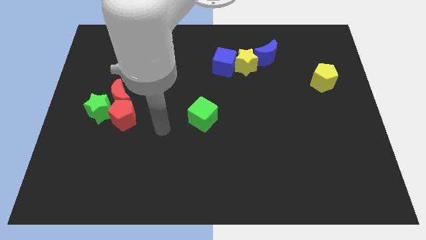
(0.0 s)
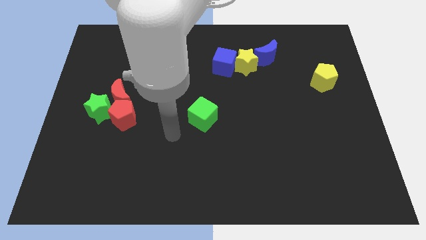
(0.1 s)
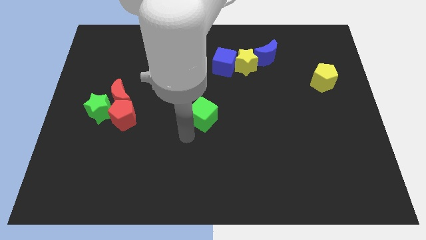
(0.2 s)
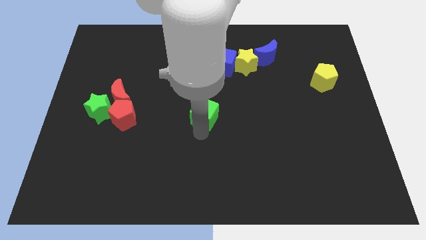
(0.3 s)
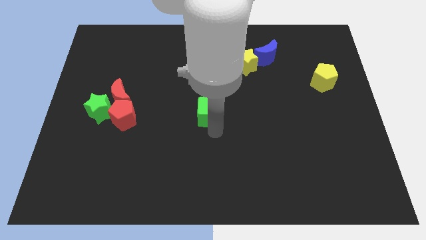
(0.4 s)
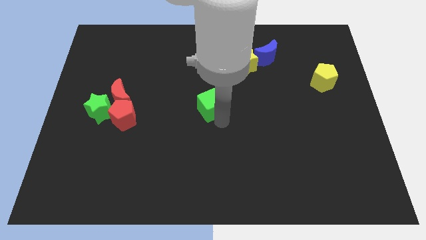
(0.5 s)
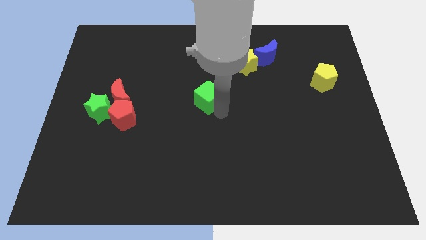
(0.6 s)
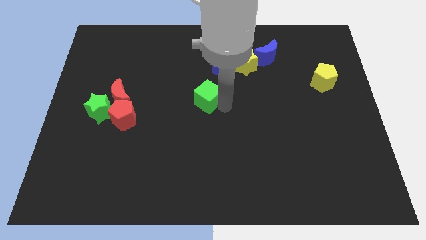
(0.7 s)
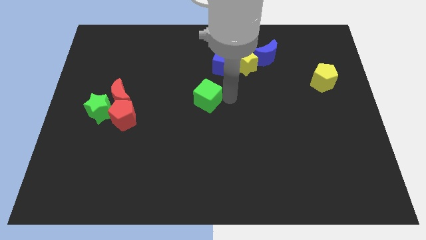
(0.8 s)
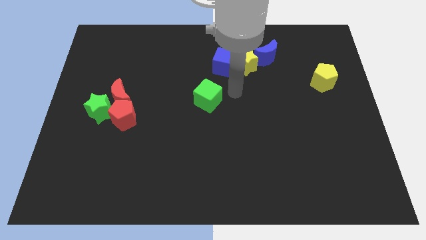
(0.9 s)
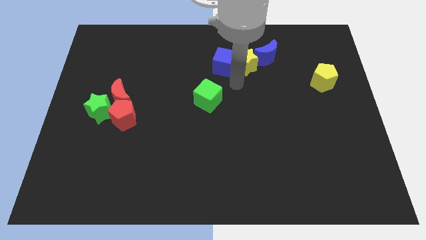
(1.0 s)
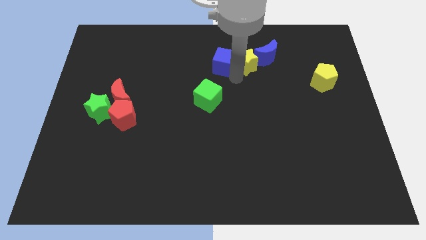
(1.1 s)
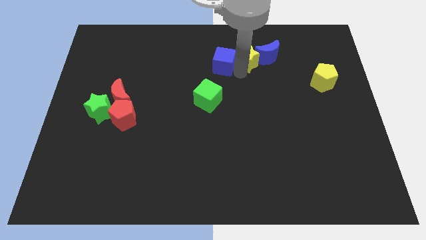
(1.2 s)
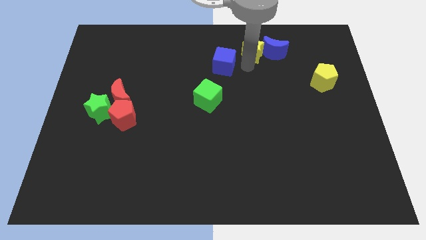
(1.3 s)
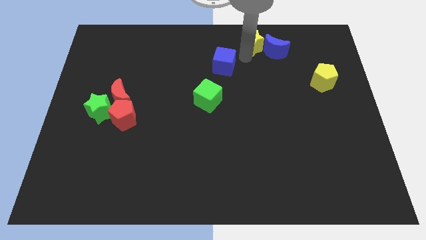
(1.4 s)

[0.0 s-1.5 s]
pull the blue cube apart from the yellow star

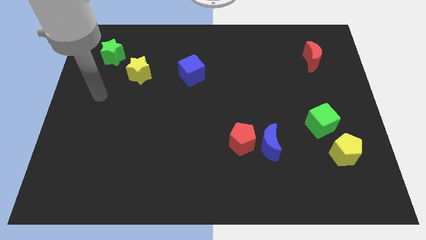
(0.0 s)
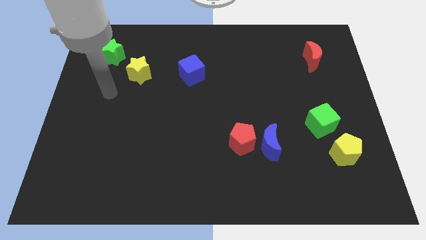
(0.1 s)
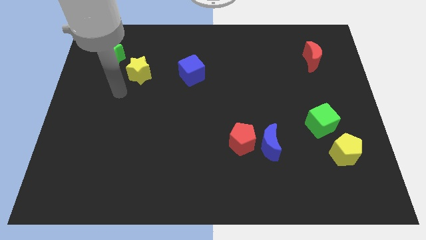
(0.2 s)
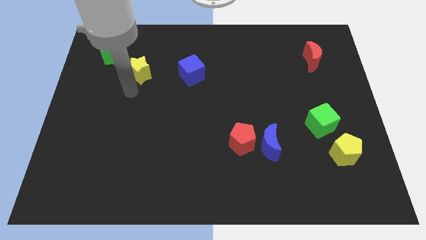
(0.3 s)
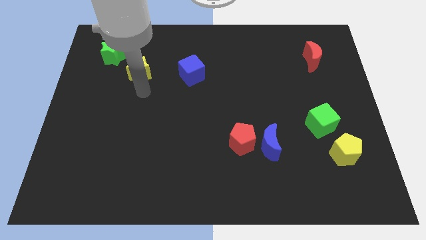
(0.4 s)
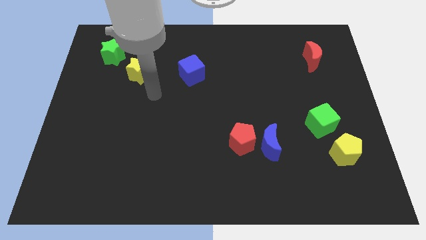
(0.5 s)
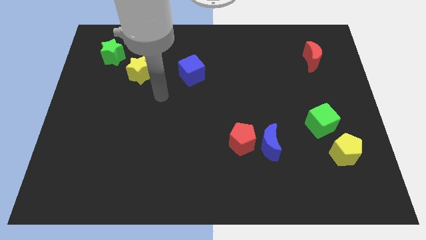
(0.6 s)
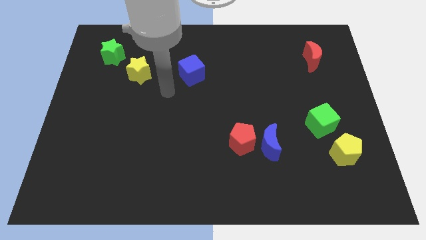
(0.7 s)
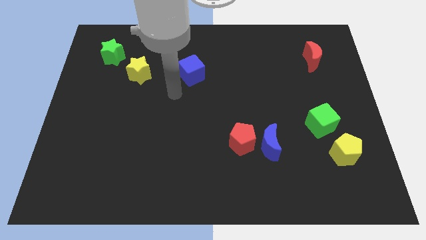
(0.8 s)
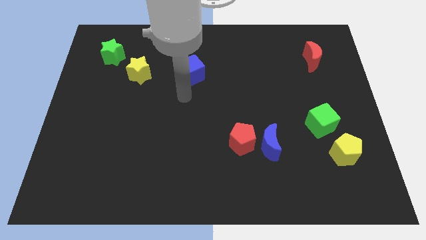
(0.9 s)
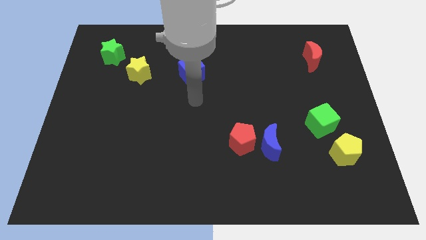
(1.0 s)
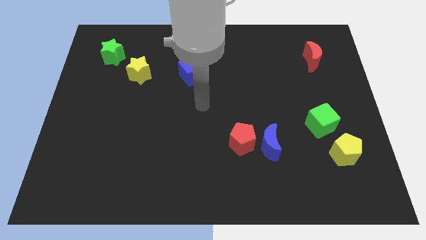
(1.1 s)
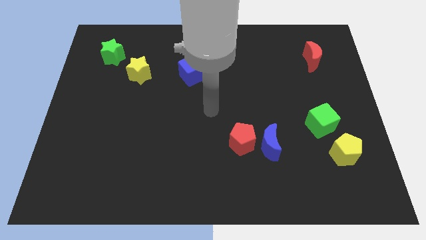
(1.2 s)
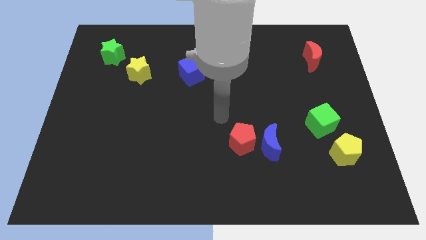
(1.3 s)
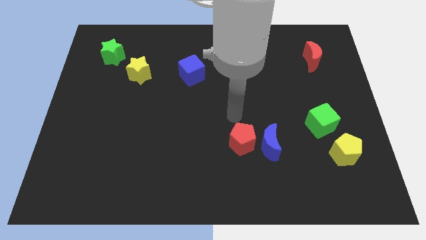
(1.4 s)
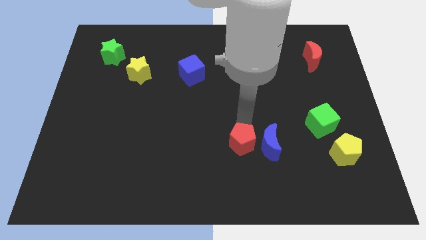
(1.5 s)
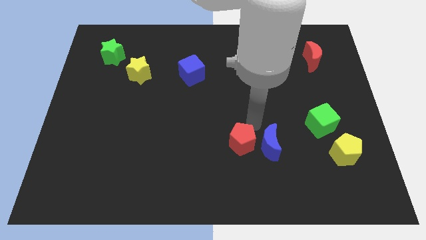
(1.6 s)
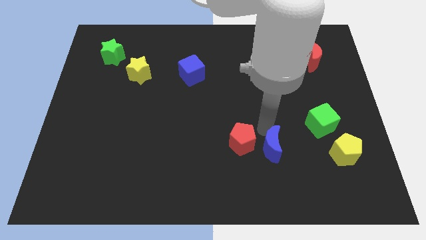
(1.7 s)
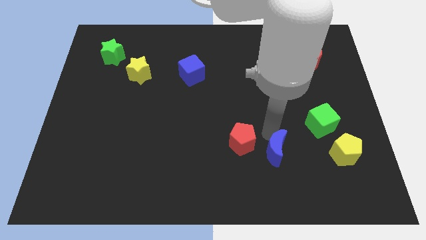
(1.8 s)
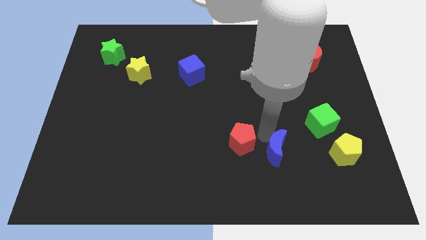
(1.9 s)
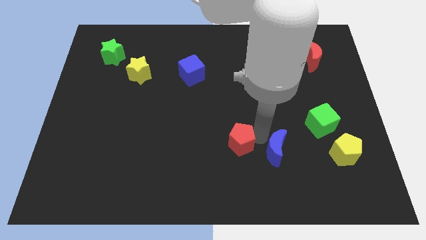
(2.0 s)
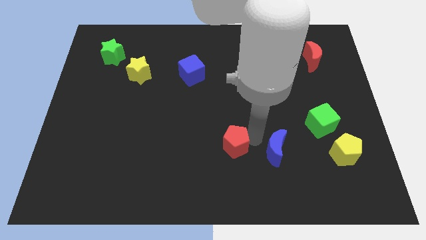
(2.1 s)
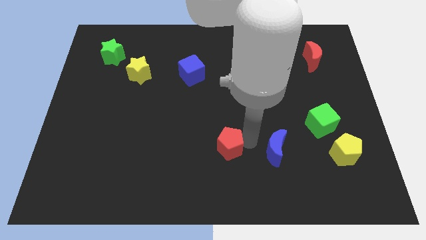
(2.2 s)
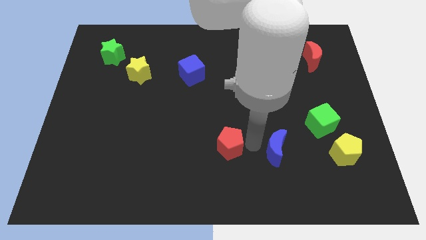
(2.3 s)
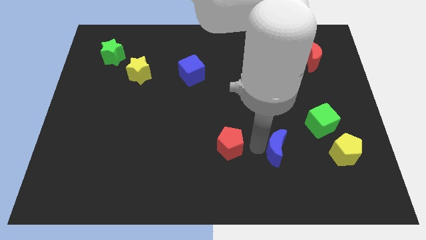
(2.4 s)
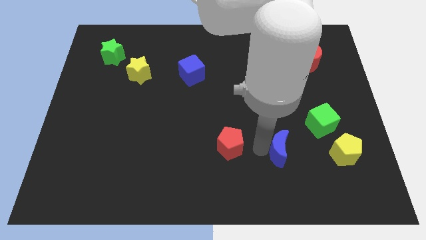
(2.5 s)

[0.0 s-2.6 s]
separate the red pentagon from the blue moon

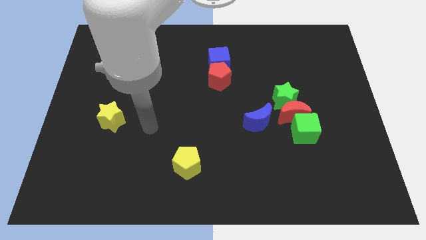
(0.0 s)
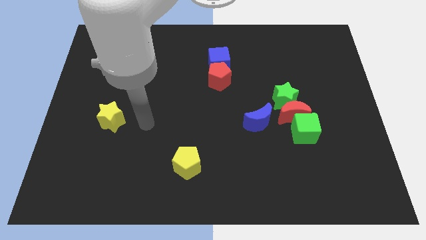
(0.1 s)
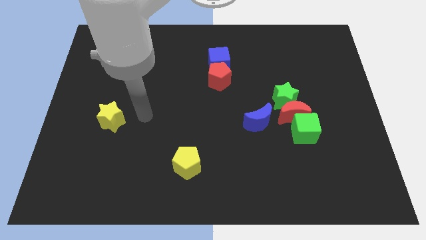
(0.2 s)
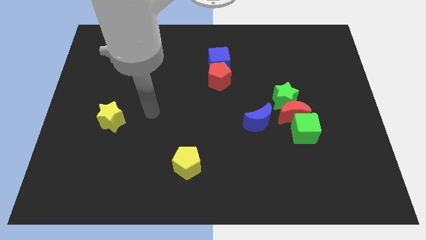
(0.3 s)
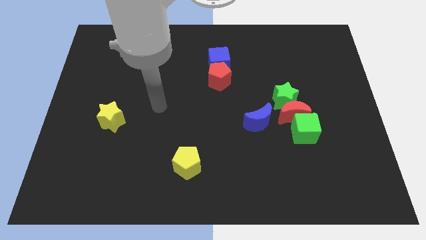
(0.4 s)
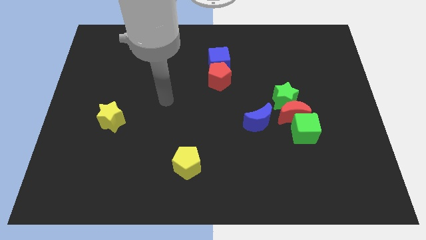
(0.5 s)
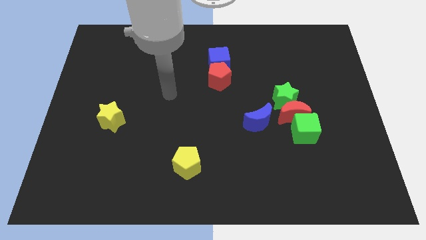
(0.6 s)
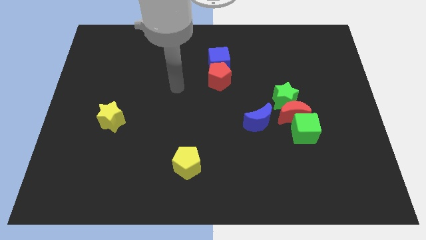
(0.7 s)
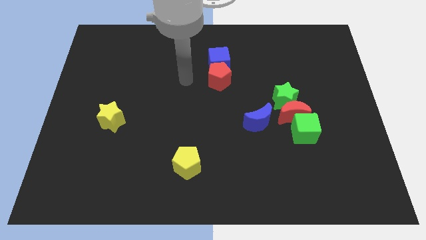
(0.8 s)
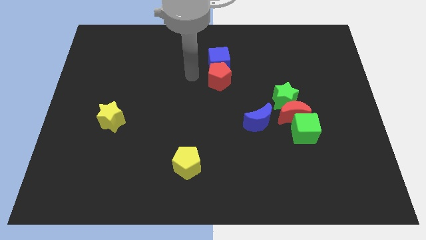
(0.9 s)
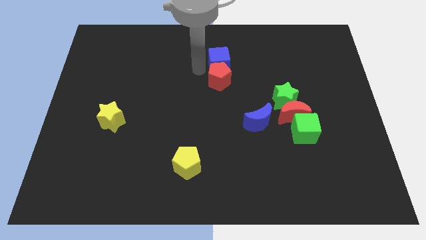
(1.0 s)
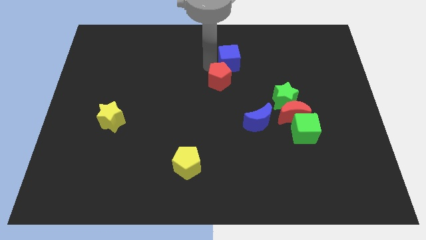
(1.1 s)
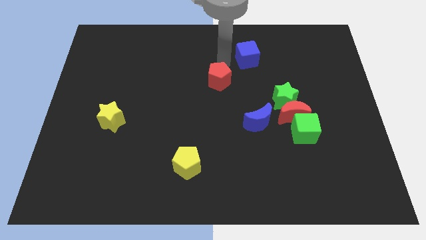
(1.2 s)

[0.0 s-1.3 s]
pull the red pentagon apart from the blue cube

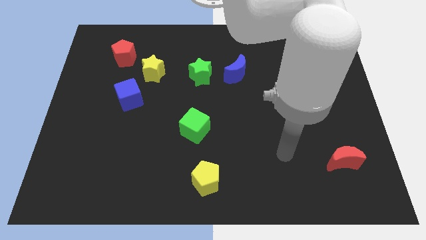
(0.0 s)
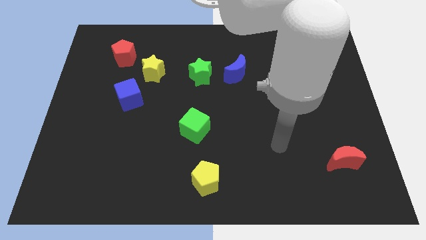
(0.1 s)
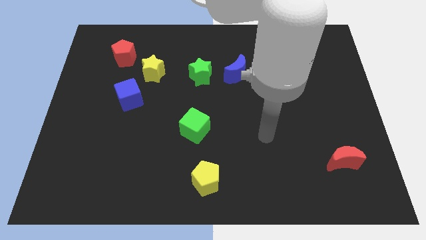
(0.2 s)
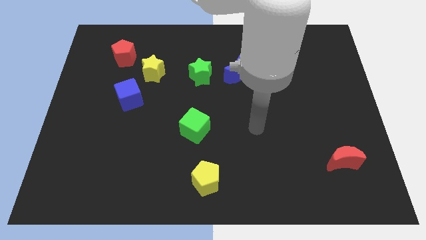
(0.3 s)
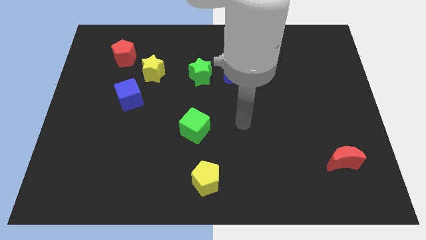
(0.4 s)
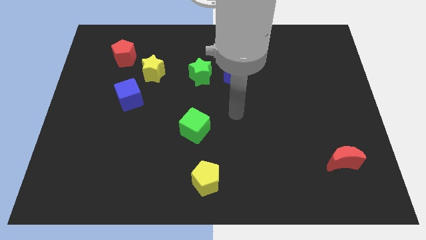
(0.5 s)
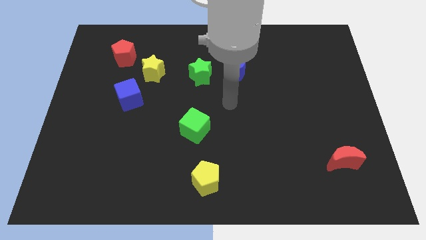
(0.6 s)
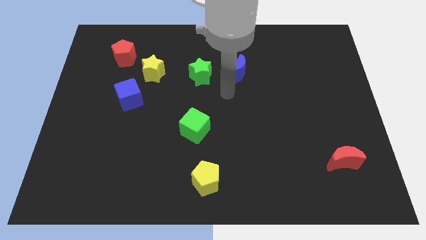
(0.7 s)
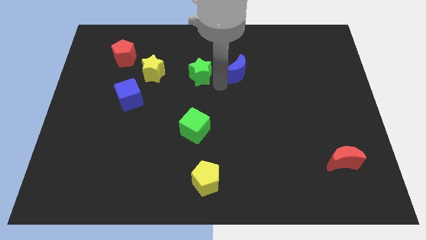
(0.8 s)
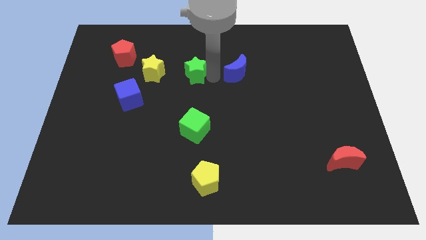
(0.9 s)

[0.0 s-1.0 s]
pull the blue moon apart from the green star

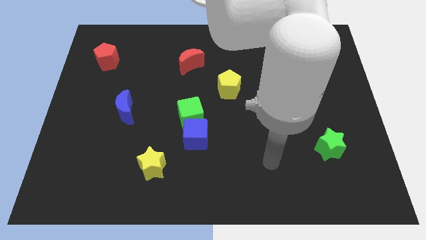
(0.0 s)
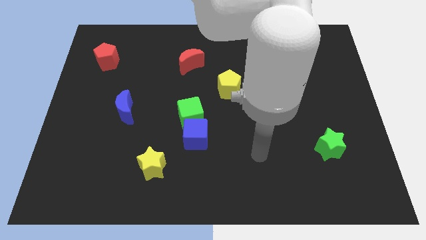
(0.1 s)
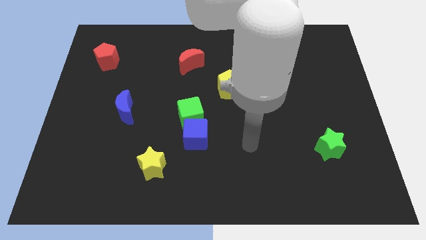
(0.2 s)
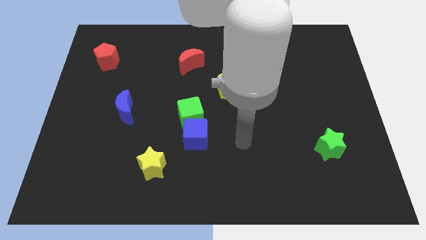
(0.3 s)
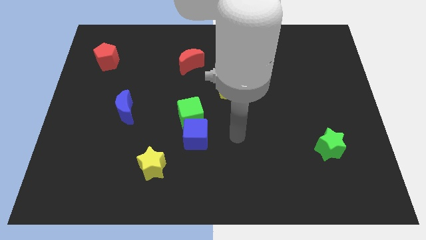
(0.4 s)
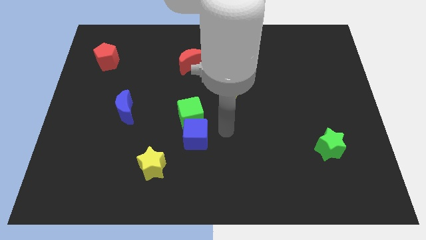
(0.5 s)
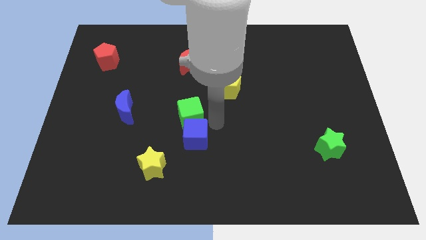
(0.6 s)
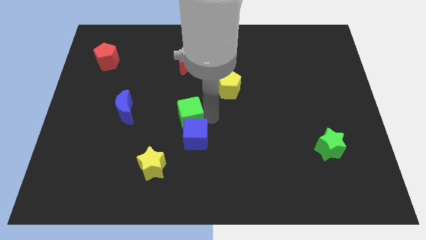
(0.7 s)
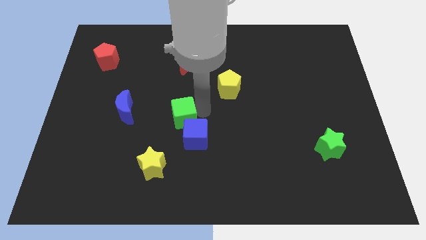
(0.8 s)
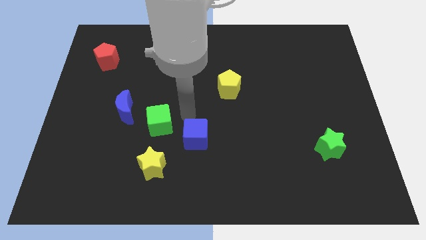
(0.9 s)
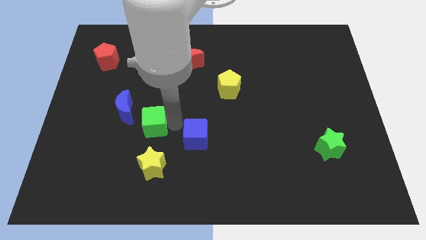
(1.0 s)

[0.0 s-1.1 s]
pull the blue cube apart from the green cube

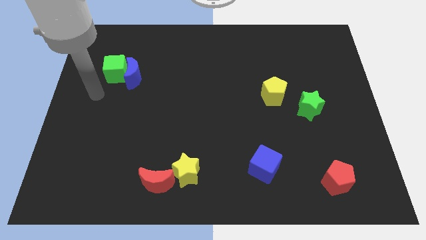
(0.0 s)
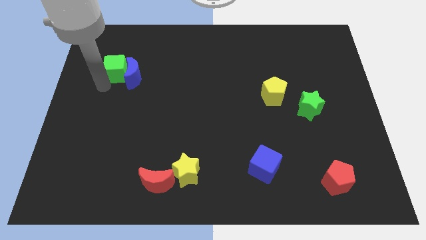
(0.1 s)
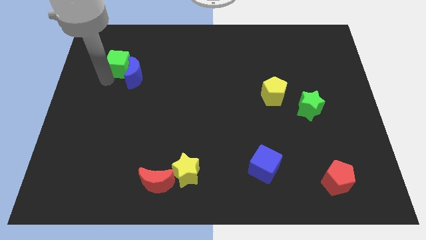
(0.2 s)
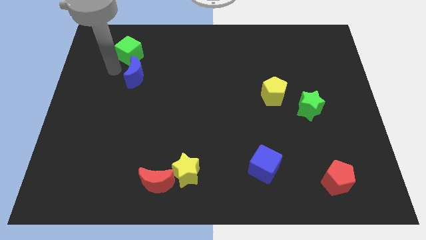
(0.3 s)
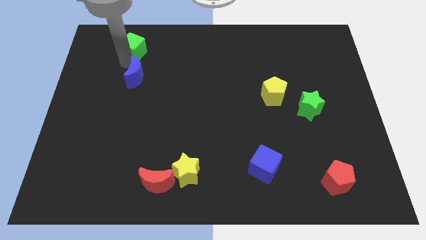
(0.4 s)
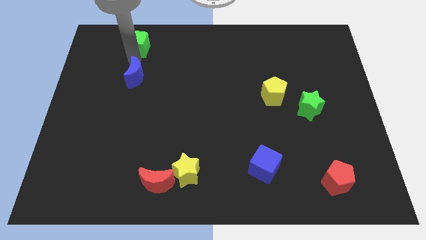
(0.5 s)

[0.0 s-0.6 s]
separate the blue moon from the green cube

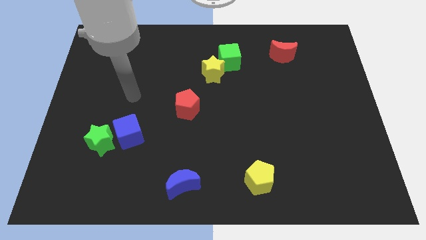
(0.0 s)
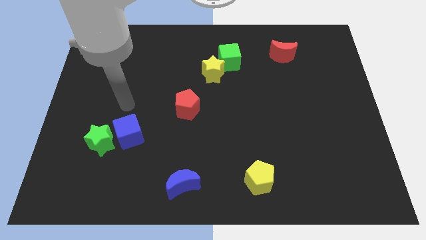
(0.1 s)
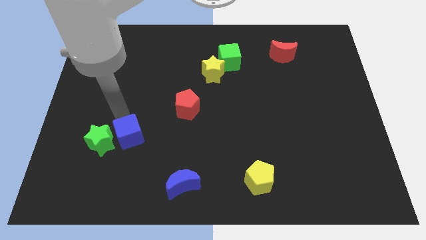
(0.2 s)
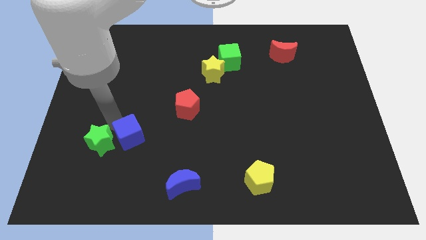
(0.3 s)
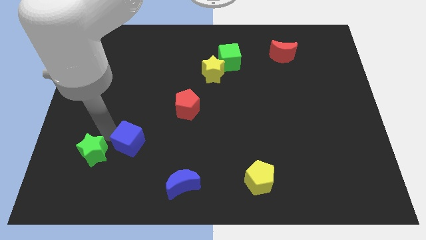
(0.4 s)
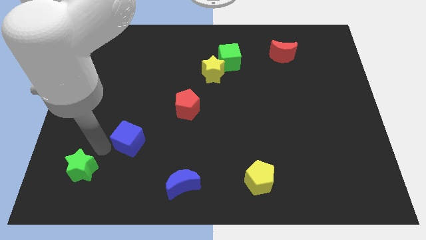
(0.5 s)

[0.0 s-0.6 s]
pull the blue cube apart from the green star

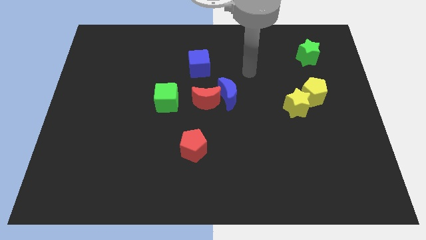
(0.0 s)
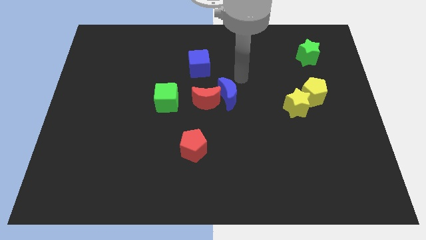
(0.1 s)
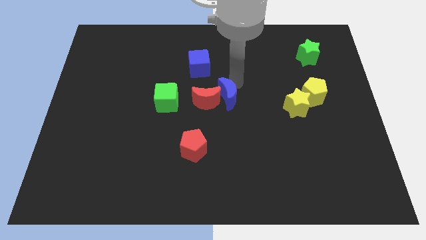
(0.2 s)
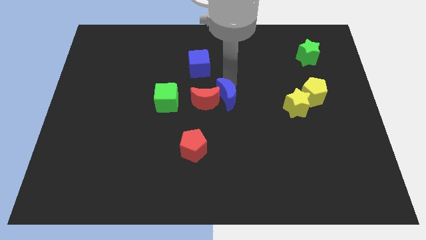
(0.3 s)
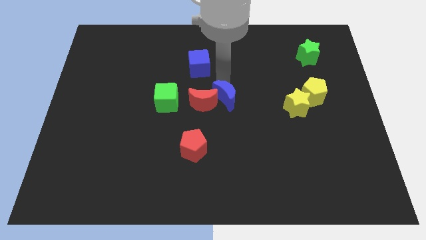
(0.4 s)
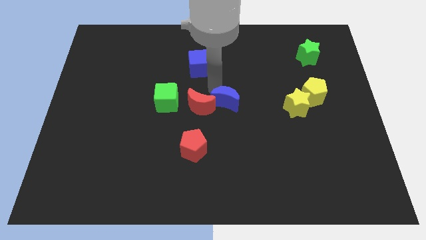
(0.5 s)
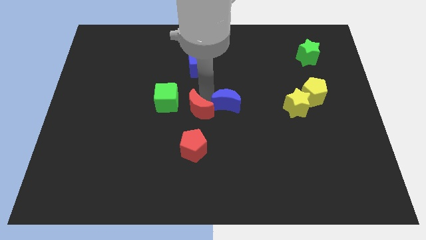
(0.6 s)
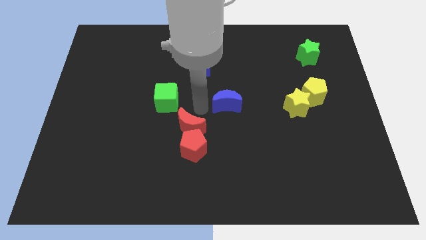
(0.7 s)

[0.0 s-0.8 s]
separate the blue moon from the red moon
